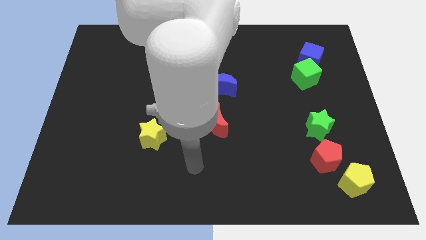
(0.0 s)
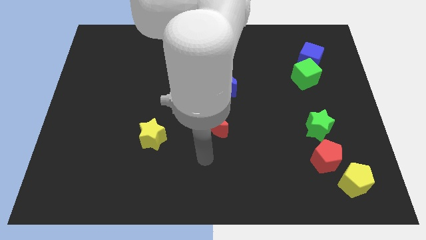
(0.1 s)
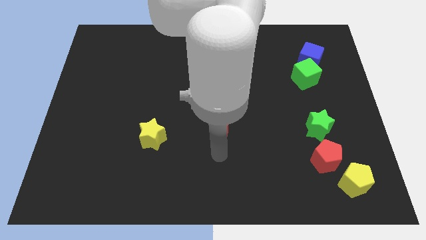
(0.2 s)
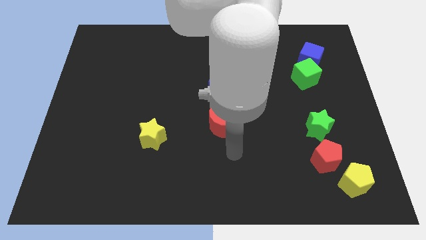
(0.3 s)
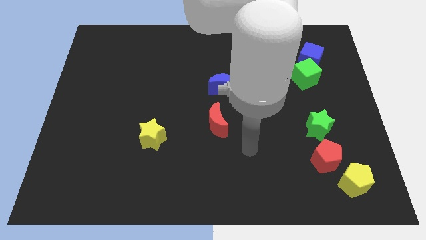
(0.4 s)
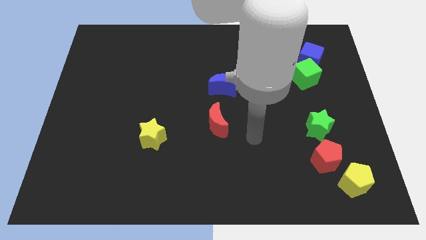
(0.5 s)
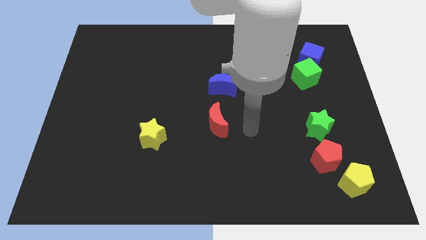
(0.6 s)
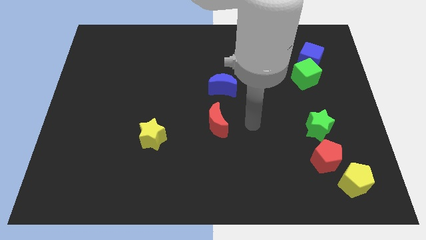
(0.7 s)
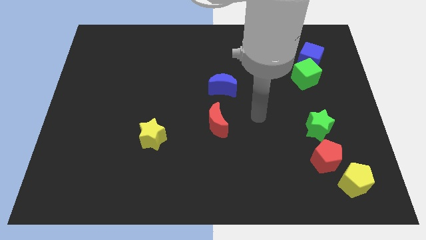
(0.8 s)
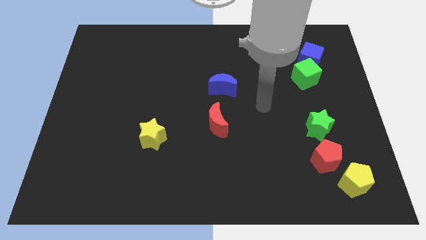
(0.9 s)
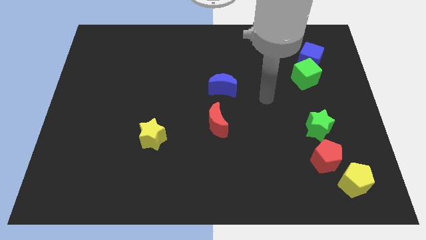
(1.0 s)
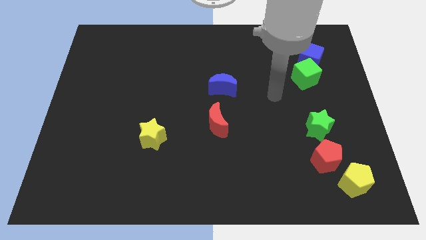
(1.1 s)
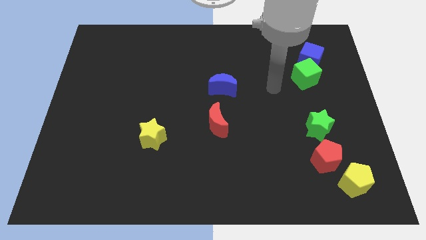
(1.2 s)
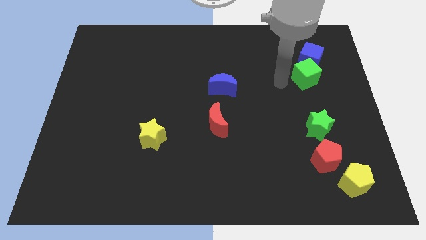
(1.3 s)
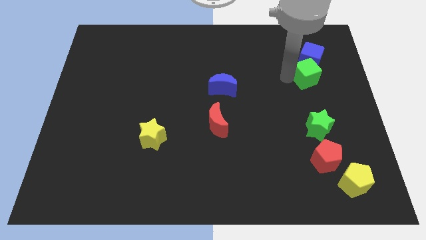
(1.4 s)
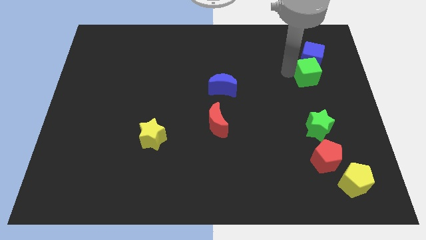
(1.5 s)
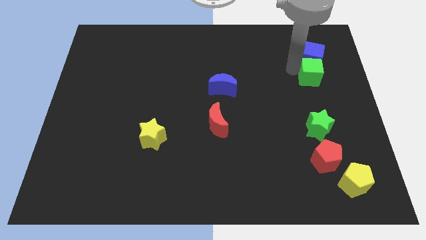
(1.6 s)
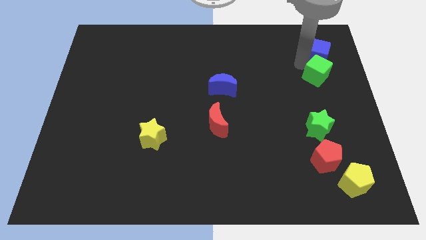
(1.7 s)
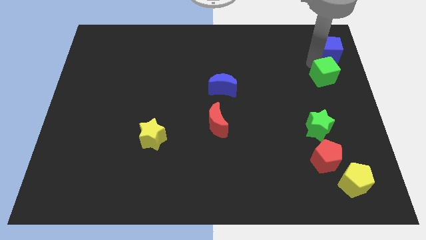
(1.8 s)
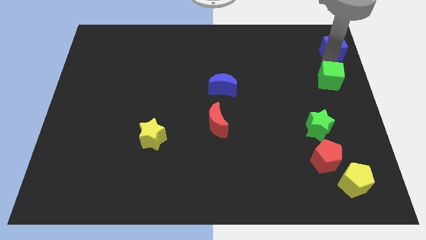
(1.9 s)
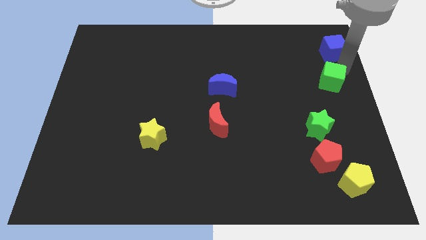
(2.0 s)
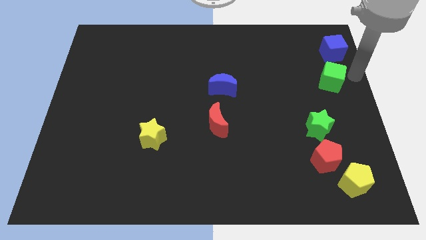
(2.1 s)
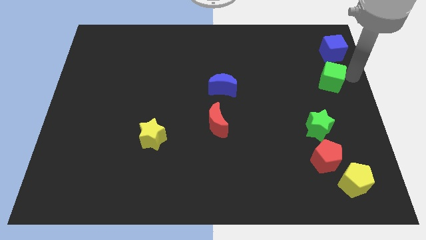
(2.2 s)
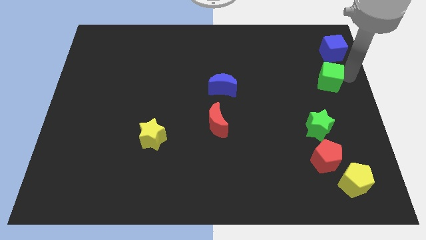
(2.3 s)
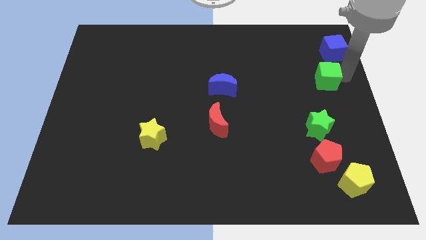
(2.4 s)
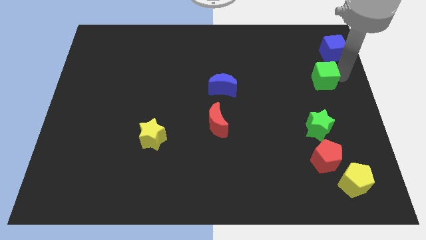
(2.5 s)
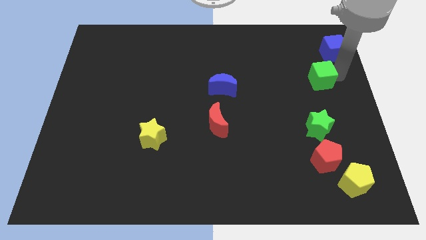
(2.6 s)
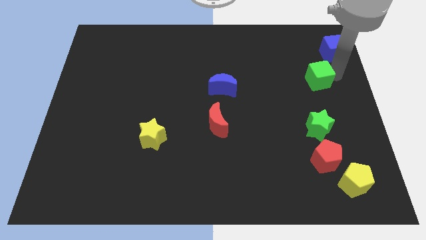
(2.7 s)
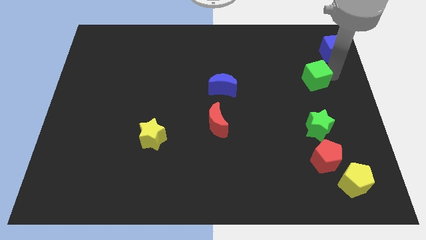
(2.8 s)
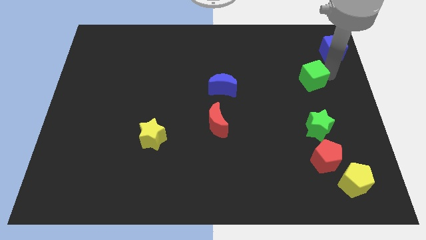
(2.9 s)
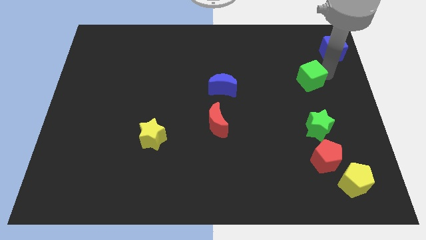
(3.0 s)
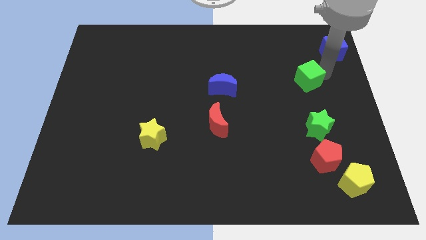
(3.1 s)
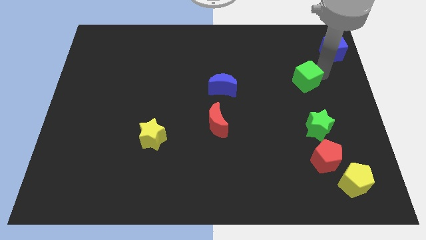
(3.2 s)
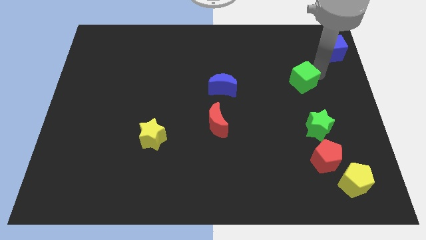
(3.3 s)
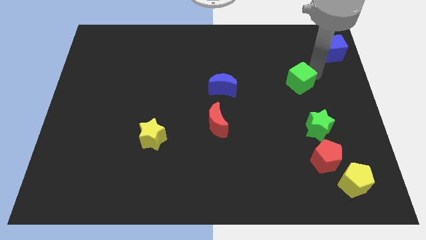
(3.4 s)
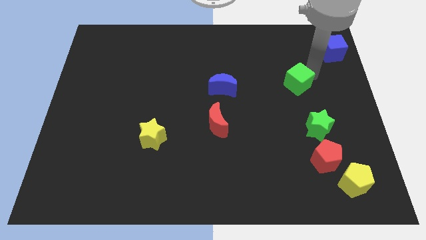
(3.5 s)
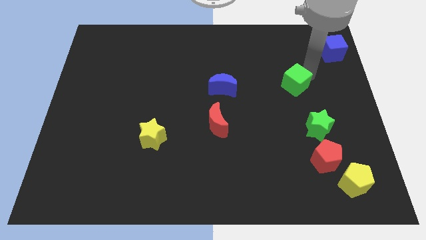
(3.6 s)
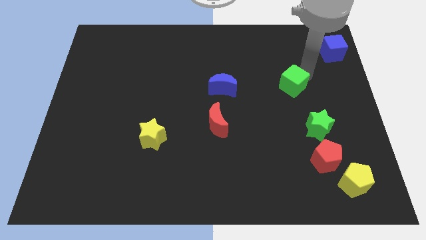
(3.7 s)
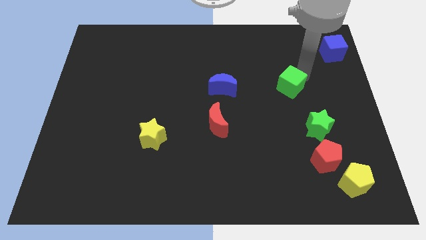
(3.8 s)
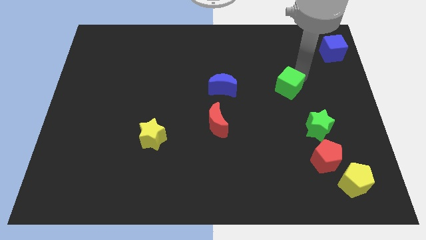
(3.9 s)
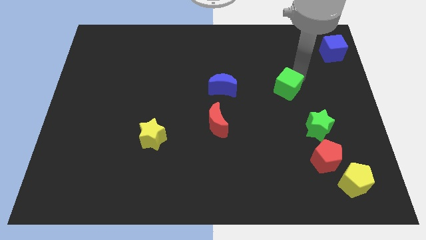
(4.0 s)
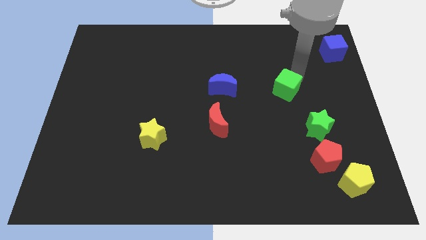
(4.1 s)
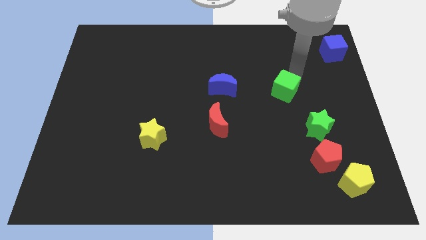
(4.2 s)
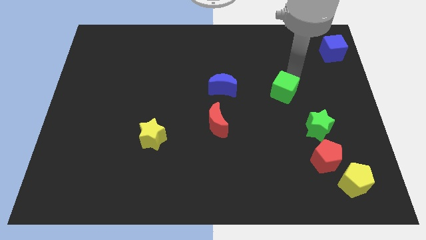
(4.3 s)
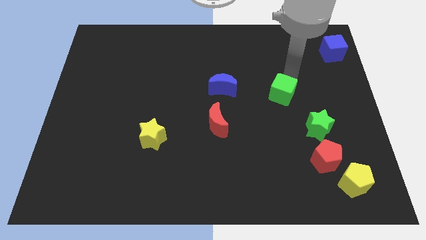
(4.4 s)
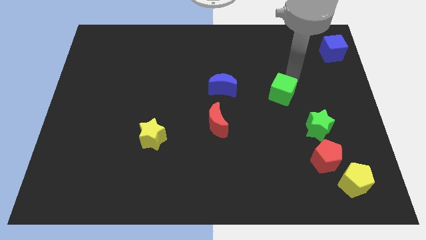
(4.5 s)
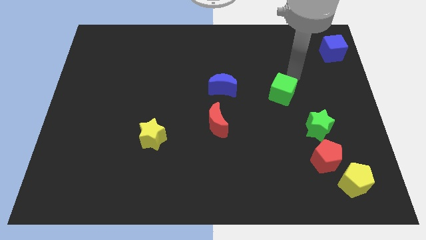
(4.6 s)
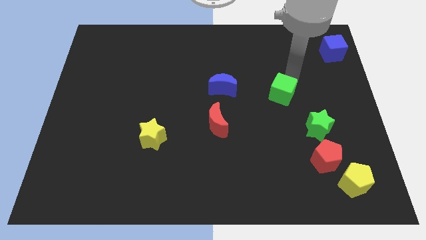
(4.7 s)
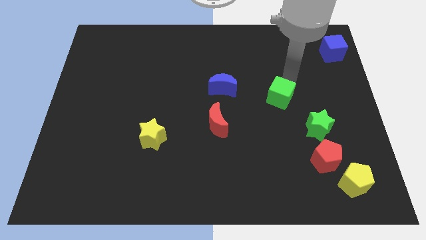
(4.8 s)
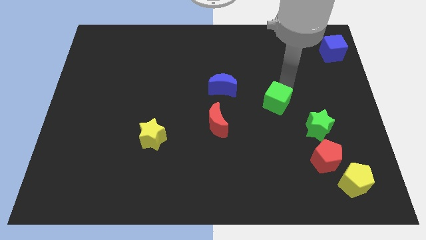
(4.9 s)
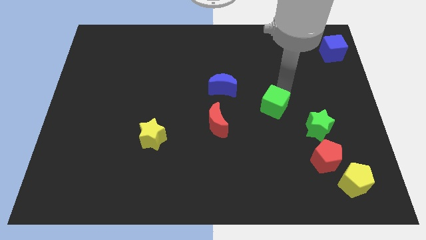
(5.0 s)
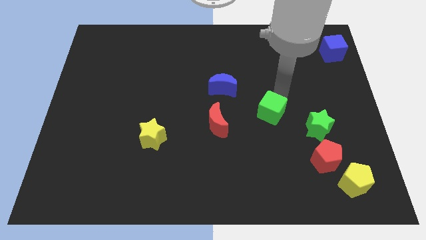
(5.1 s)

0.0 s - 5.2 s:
put the green cube to the right of the red moon

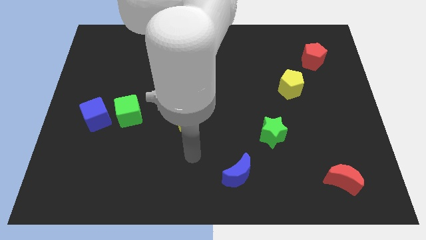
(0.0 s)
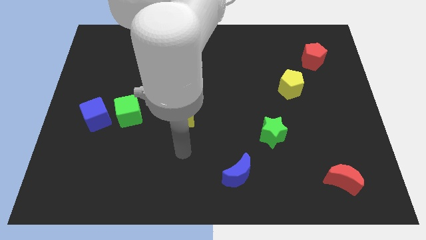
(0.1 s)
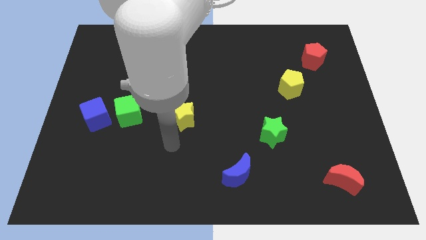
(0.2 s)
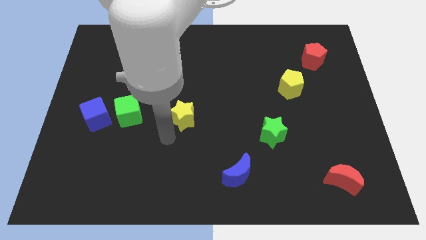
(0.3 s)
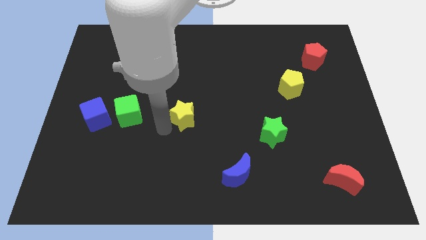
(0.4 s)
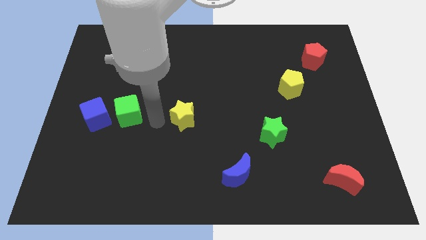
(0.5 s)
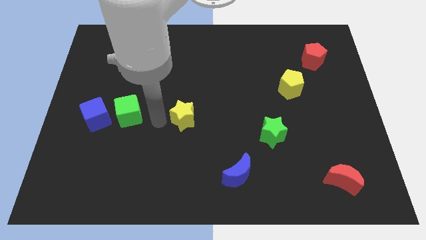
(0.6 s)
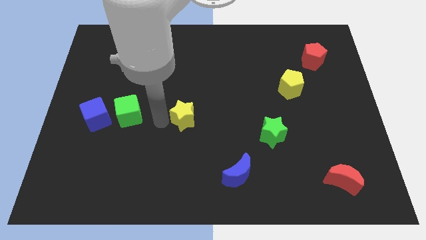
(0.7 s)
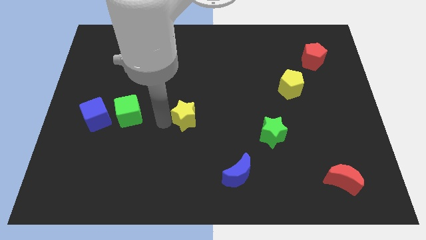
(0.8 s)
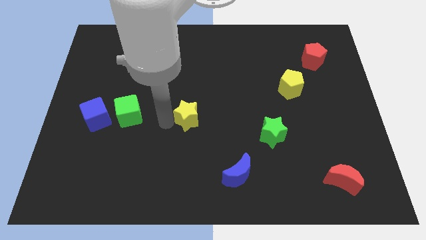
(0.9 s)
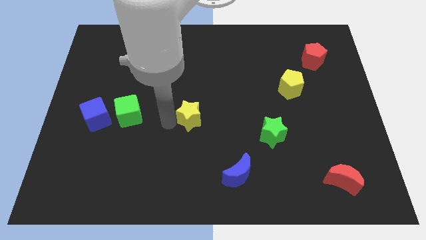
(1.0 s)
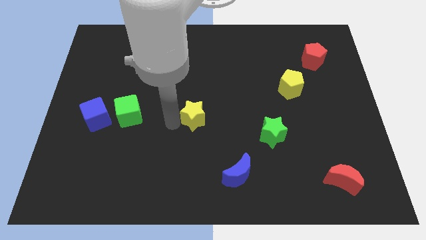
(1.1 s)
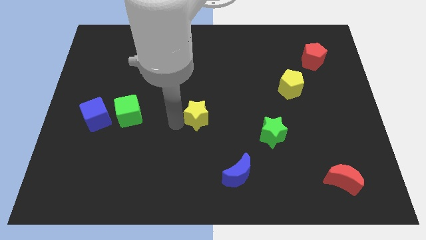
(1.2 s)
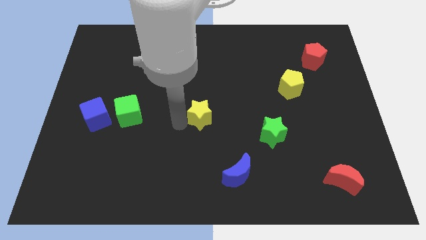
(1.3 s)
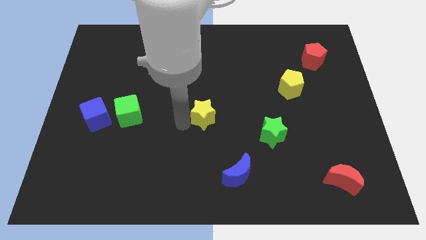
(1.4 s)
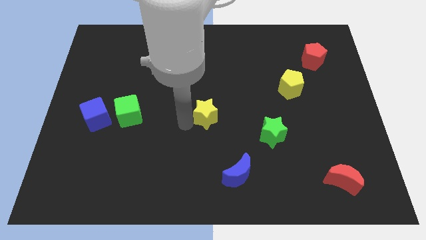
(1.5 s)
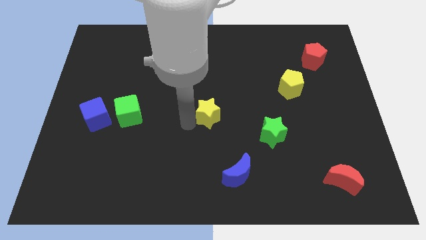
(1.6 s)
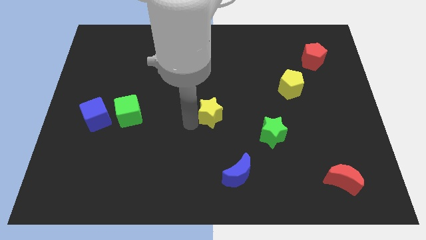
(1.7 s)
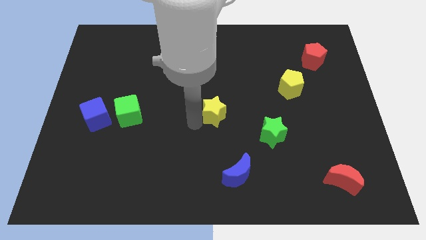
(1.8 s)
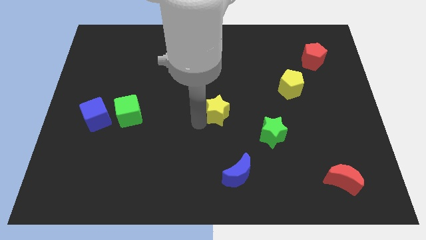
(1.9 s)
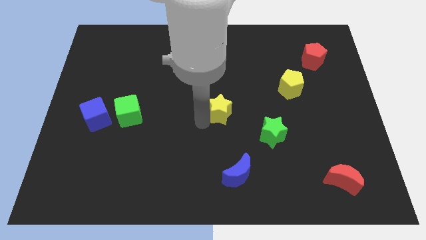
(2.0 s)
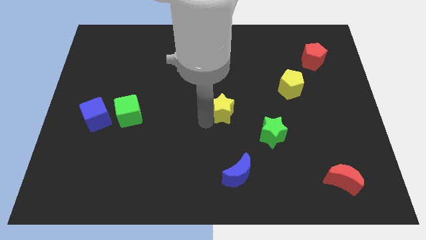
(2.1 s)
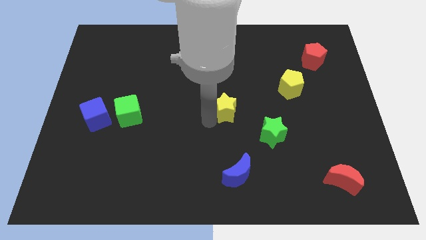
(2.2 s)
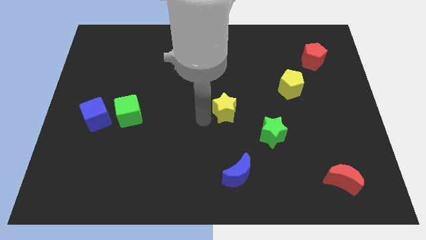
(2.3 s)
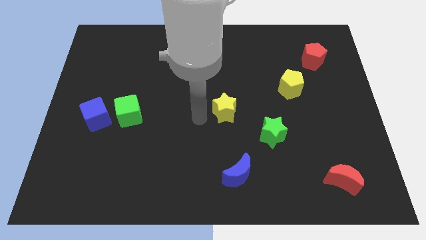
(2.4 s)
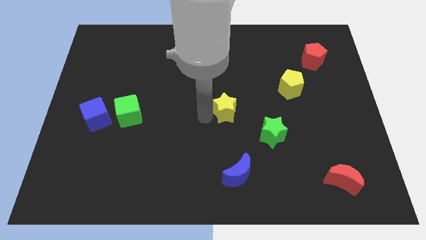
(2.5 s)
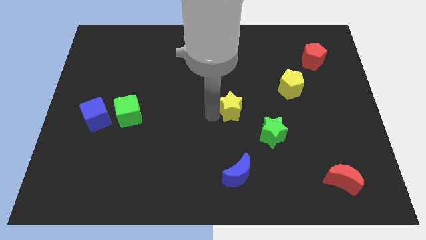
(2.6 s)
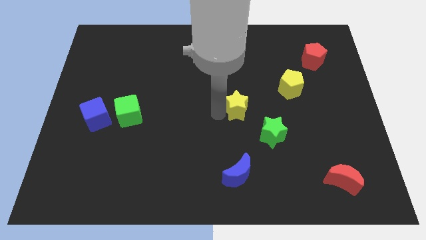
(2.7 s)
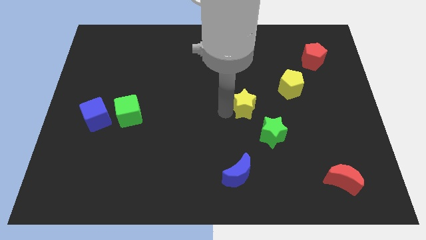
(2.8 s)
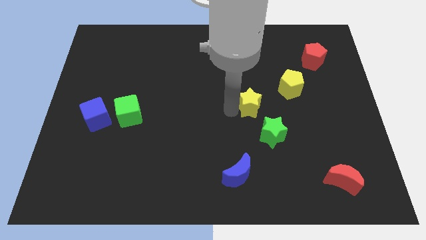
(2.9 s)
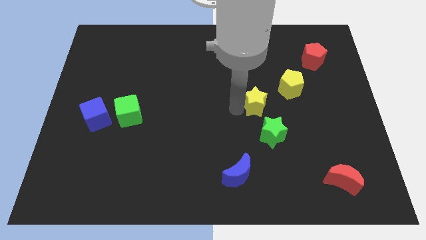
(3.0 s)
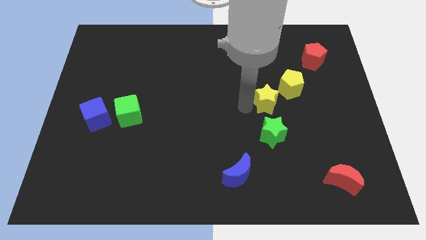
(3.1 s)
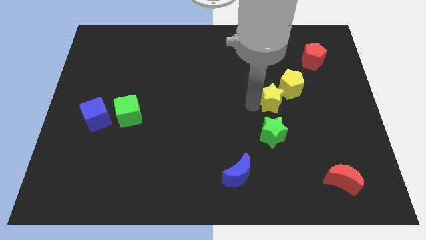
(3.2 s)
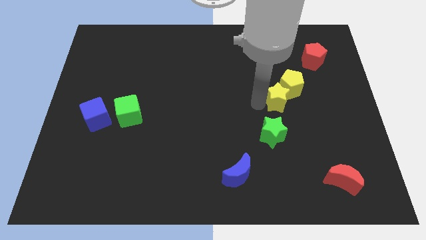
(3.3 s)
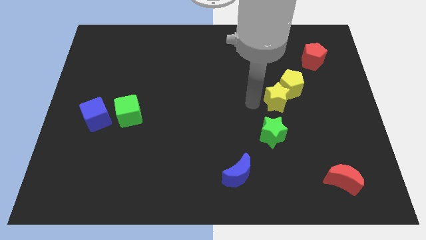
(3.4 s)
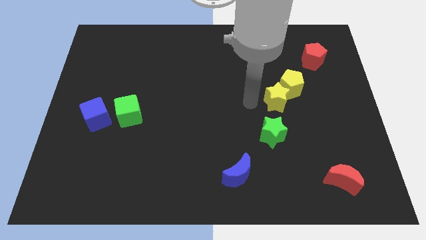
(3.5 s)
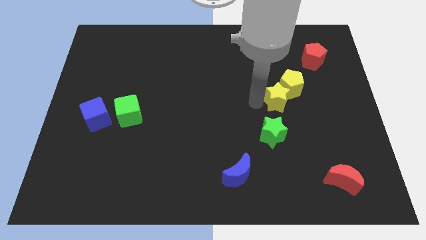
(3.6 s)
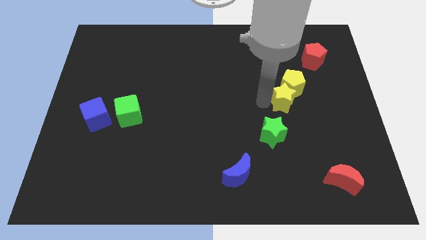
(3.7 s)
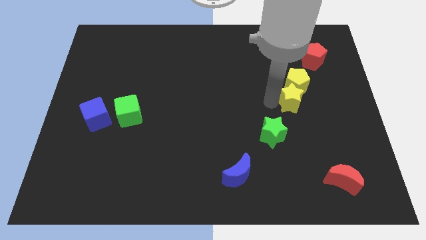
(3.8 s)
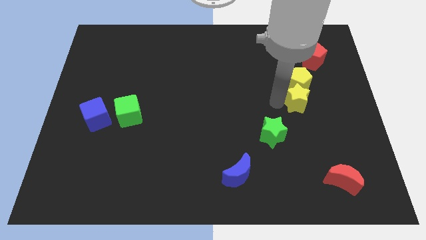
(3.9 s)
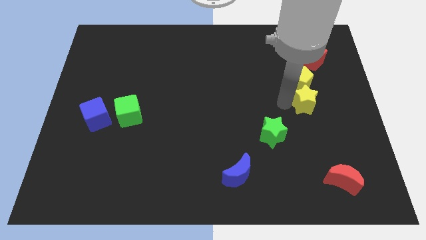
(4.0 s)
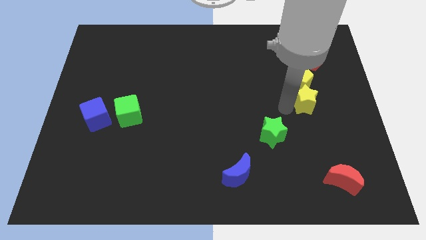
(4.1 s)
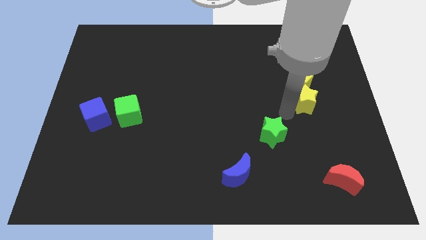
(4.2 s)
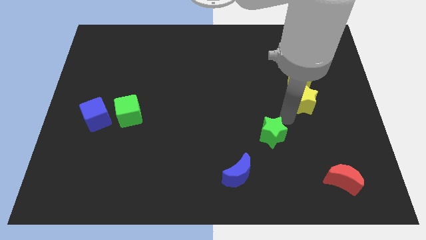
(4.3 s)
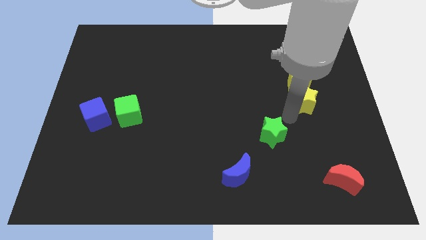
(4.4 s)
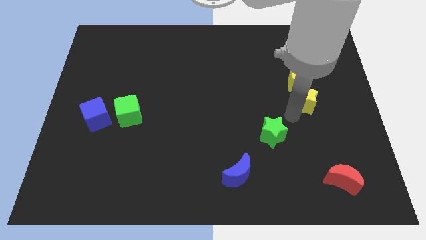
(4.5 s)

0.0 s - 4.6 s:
slide the yellow star below the red pentagon
